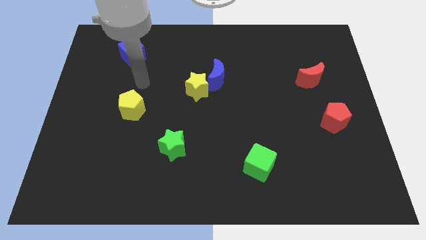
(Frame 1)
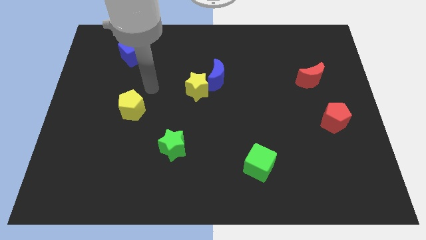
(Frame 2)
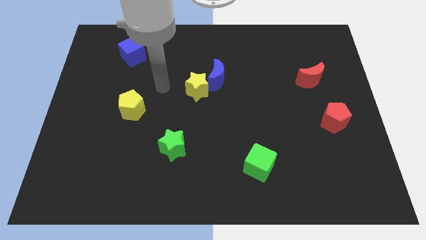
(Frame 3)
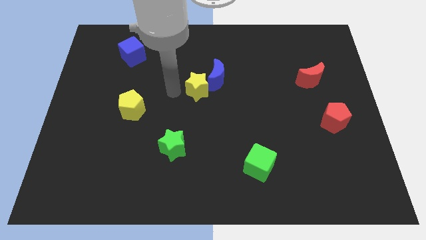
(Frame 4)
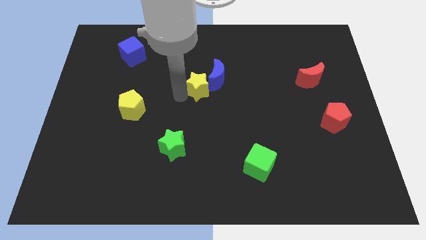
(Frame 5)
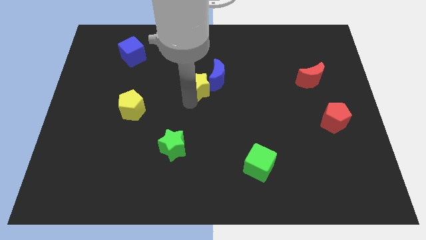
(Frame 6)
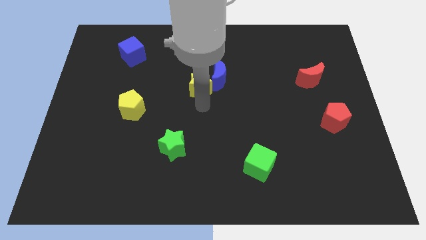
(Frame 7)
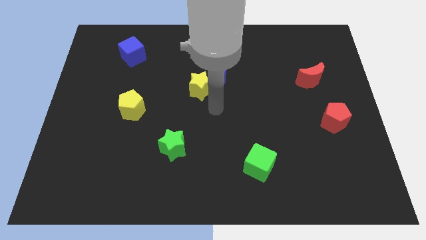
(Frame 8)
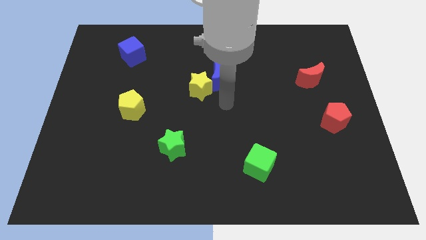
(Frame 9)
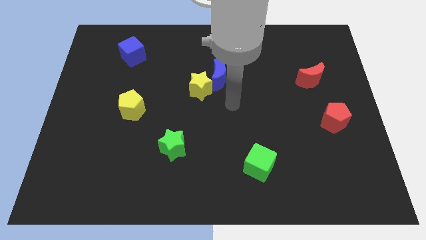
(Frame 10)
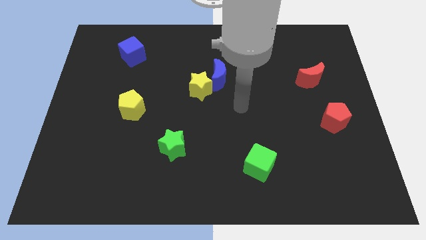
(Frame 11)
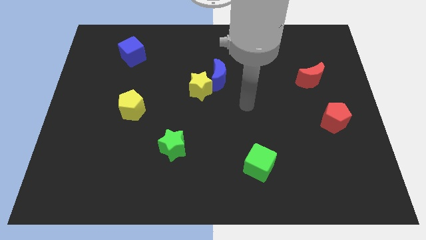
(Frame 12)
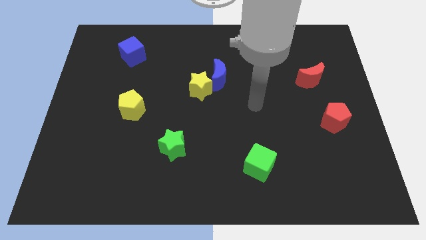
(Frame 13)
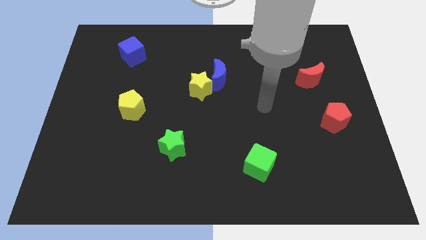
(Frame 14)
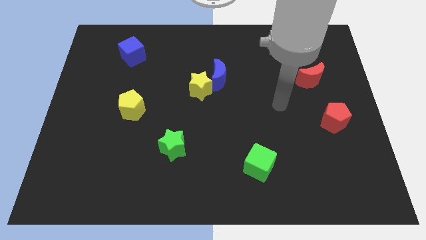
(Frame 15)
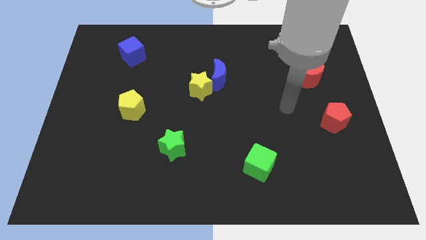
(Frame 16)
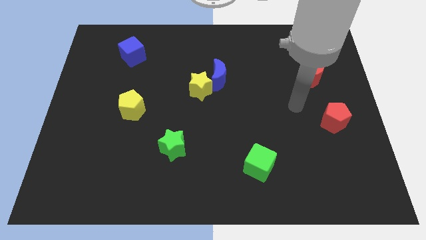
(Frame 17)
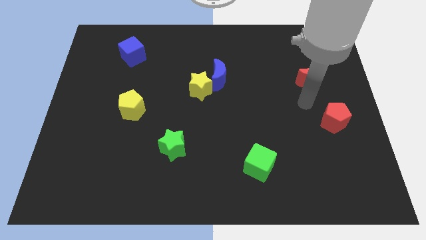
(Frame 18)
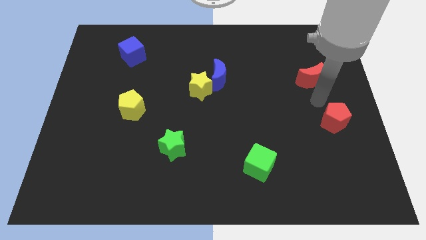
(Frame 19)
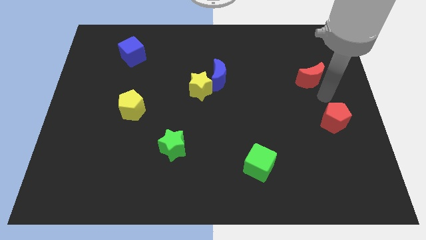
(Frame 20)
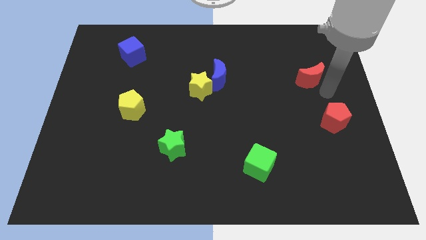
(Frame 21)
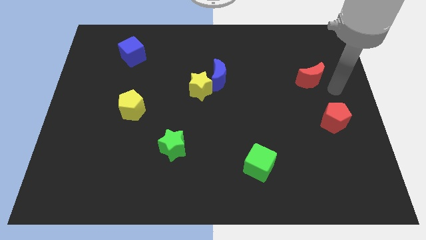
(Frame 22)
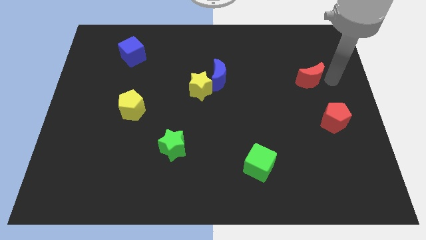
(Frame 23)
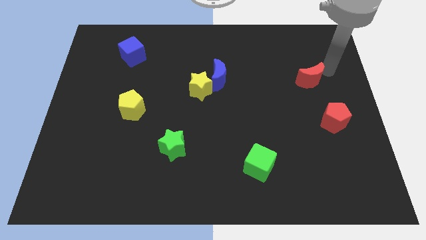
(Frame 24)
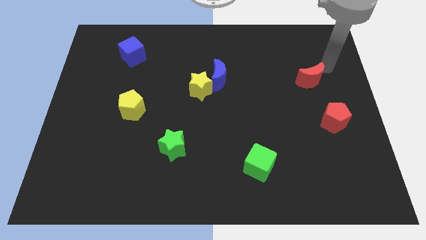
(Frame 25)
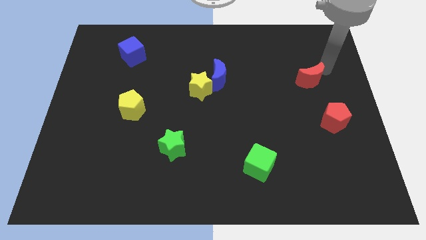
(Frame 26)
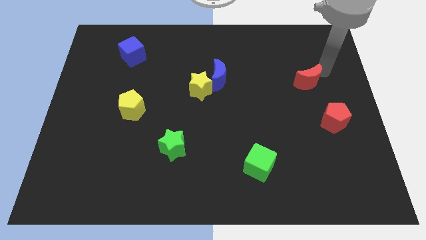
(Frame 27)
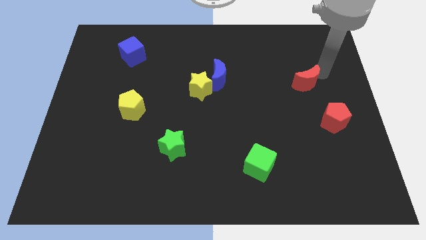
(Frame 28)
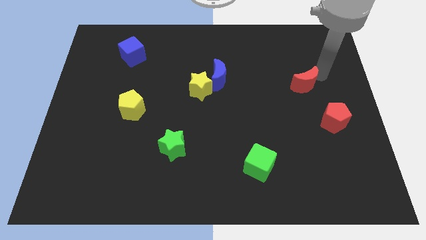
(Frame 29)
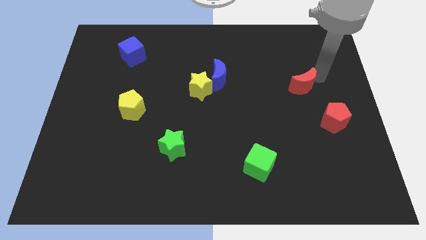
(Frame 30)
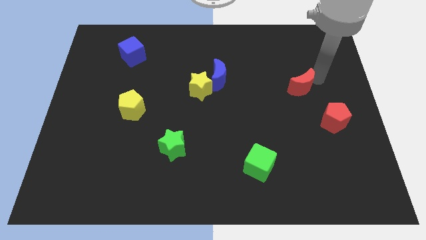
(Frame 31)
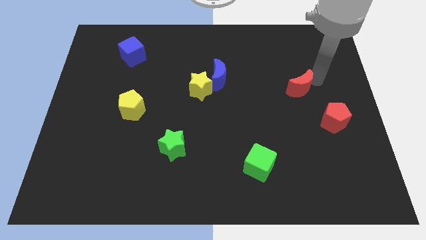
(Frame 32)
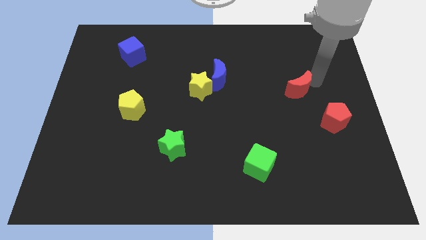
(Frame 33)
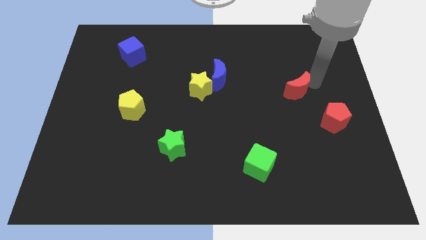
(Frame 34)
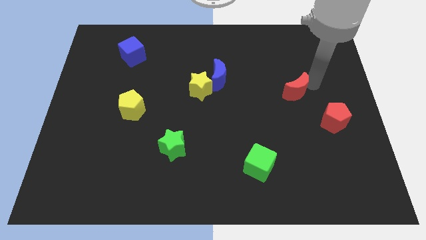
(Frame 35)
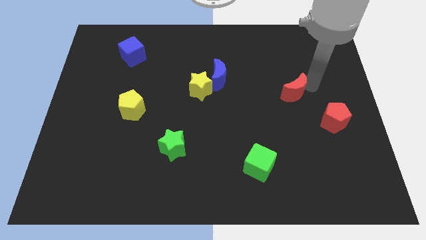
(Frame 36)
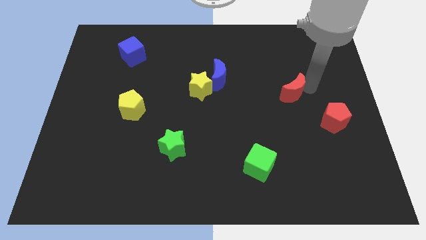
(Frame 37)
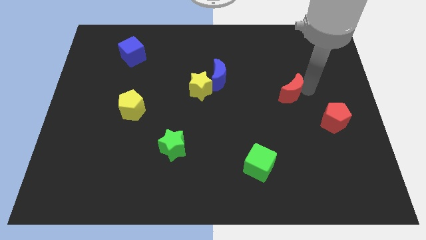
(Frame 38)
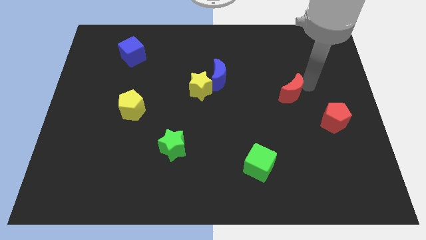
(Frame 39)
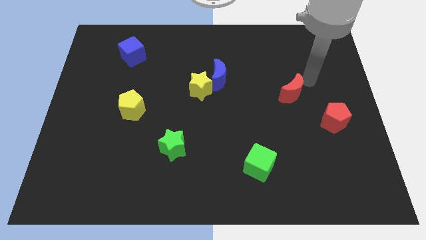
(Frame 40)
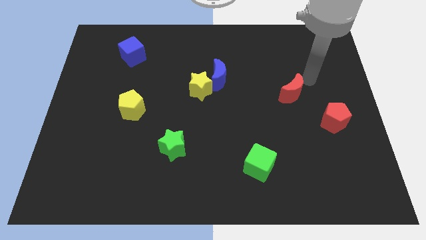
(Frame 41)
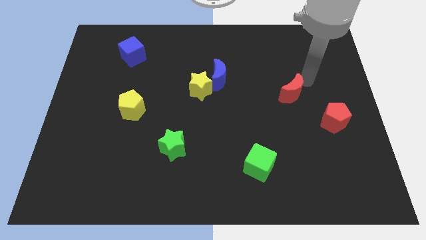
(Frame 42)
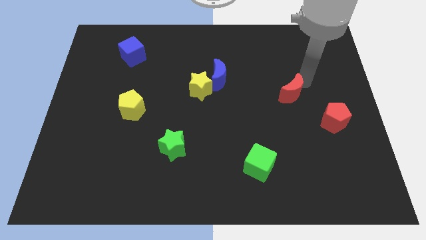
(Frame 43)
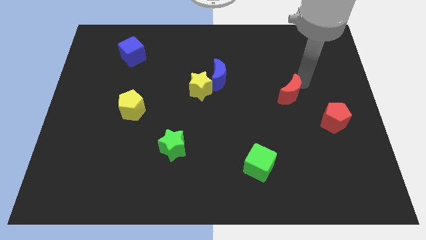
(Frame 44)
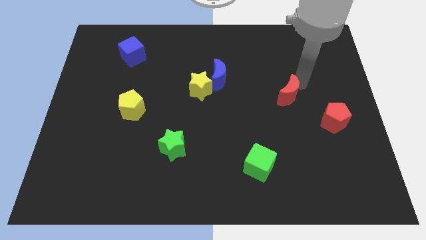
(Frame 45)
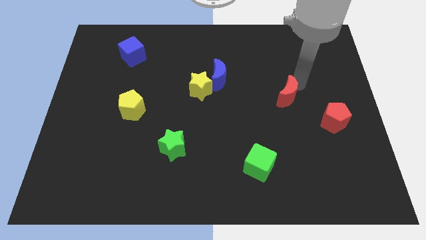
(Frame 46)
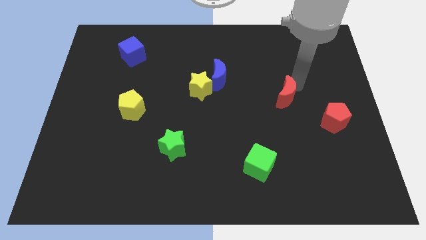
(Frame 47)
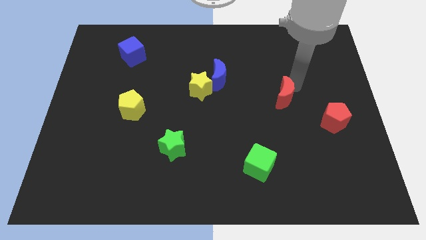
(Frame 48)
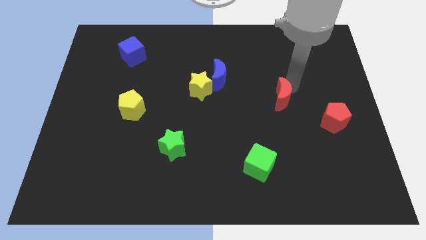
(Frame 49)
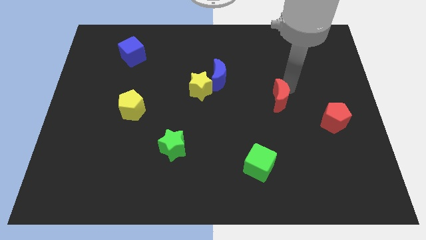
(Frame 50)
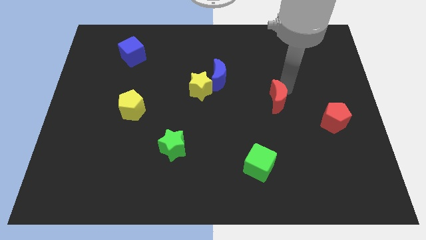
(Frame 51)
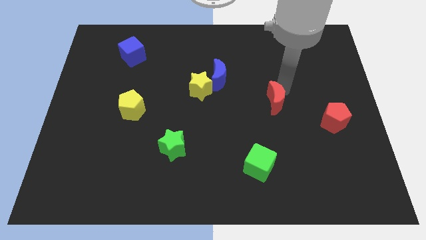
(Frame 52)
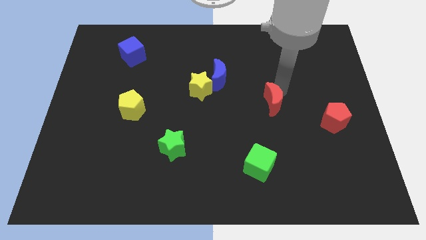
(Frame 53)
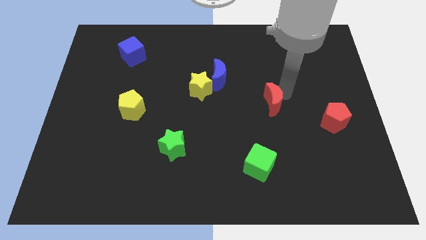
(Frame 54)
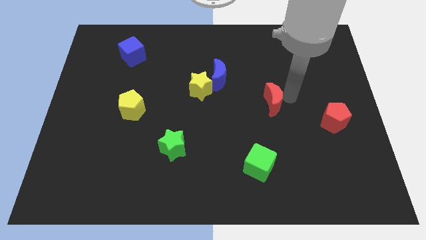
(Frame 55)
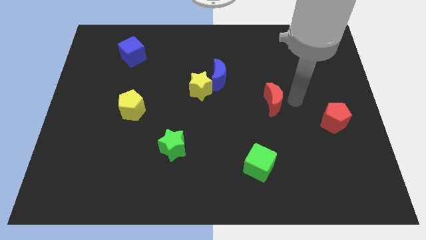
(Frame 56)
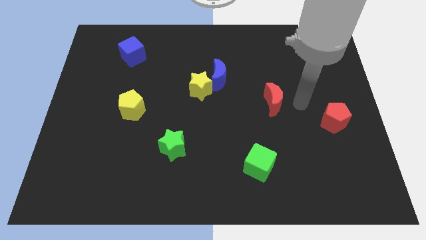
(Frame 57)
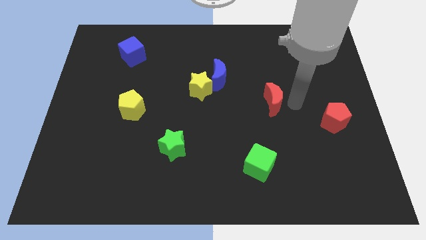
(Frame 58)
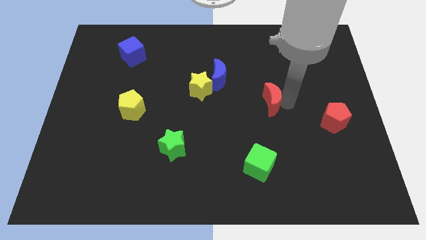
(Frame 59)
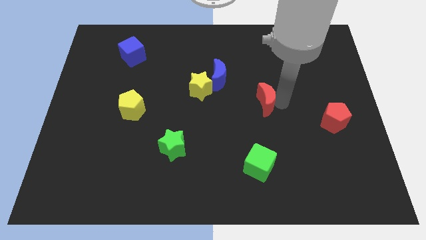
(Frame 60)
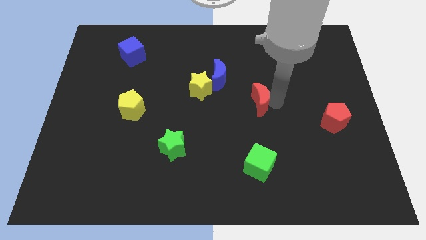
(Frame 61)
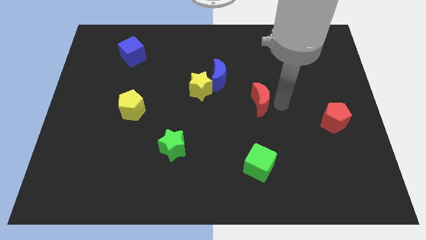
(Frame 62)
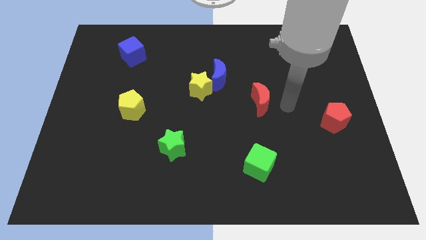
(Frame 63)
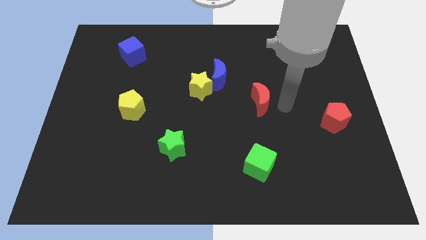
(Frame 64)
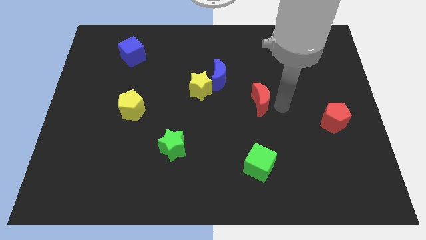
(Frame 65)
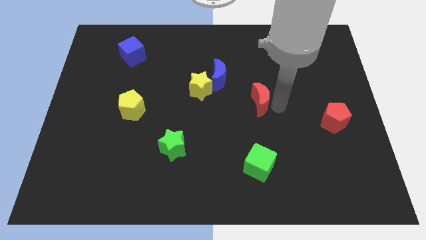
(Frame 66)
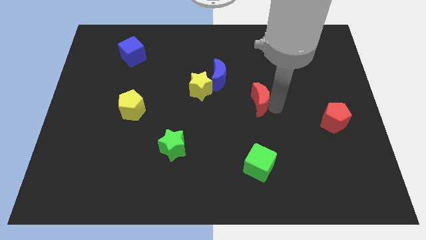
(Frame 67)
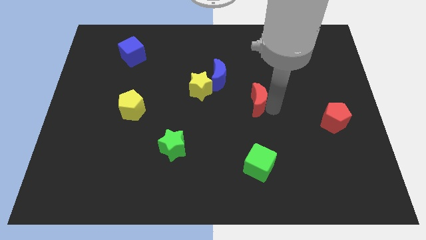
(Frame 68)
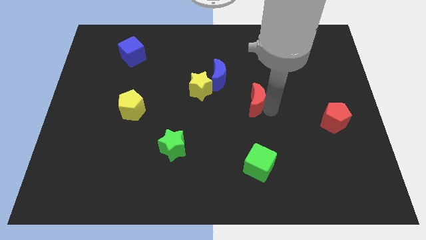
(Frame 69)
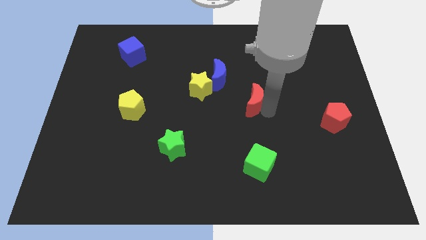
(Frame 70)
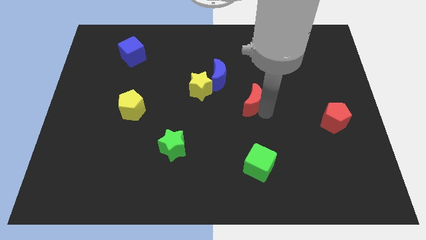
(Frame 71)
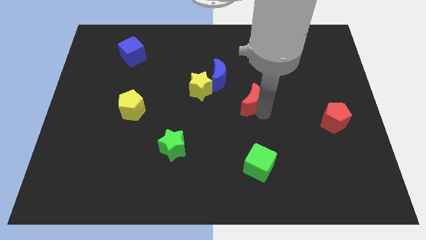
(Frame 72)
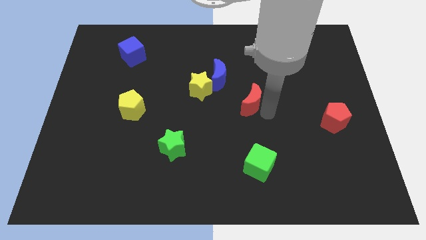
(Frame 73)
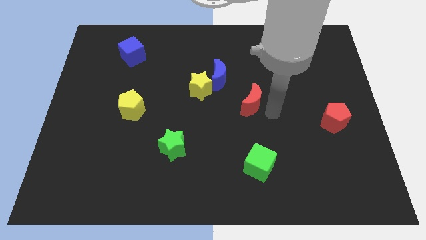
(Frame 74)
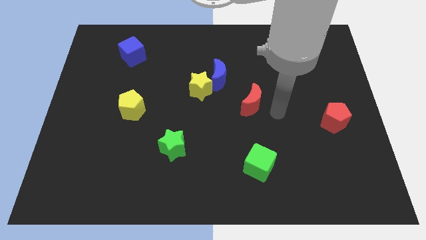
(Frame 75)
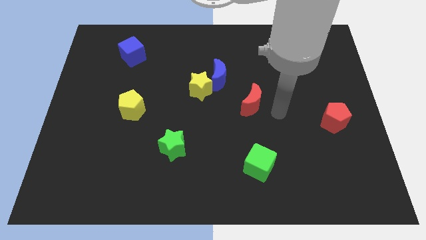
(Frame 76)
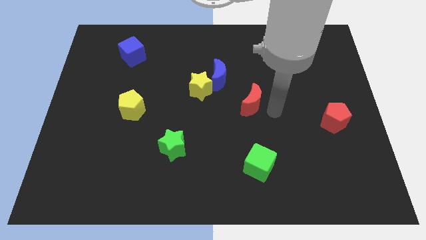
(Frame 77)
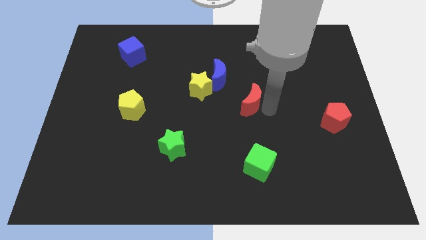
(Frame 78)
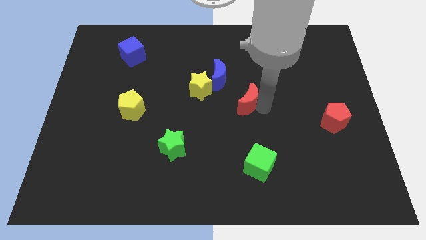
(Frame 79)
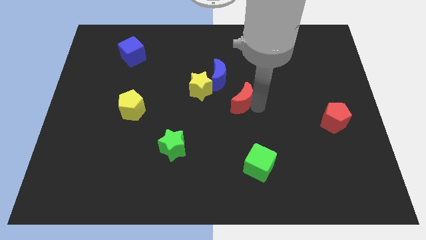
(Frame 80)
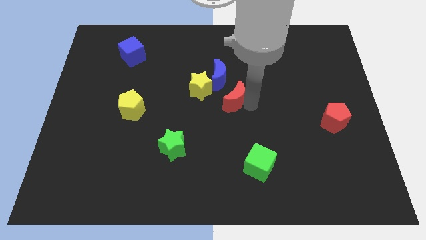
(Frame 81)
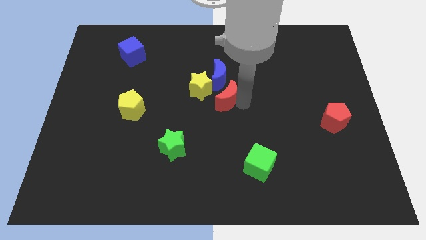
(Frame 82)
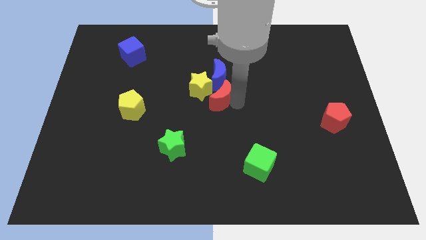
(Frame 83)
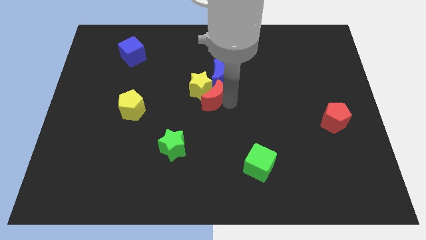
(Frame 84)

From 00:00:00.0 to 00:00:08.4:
slide the red moon towards the yellow star
